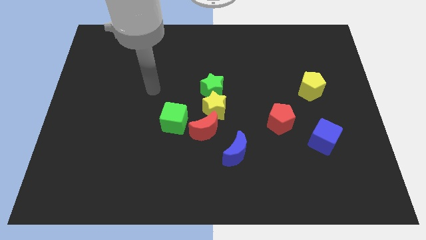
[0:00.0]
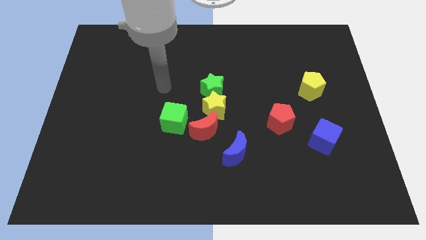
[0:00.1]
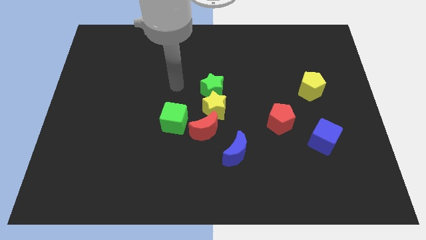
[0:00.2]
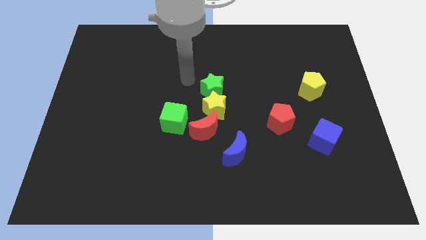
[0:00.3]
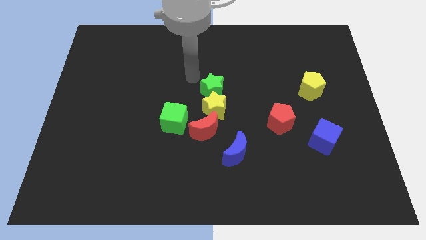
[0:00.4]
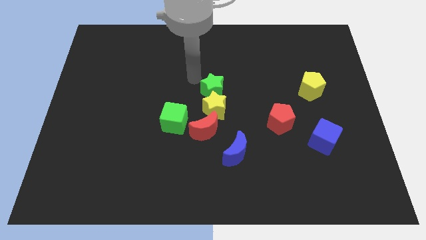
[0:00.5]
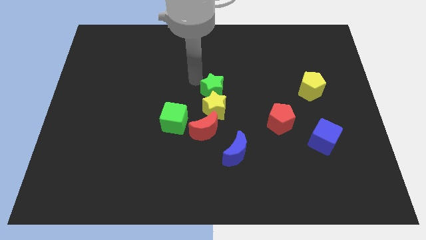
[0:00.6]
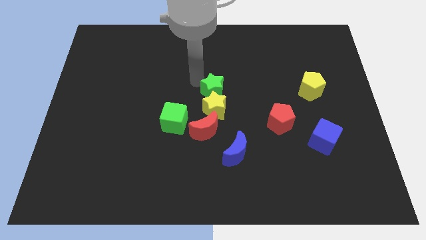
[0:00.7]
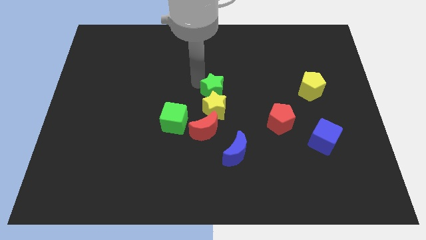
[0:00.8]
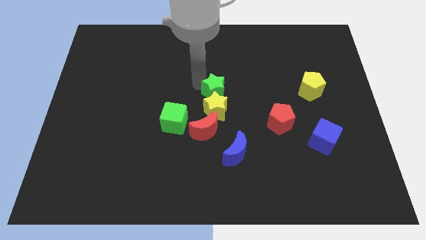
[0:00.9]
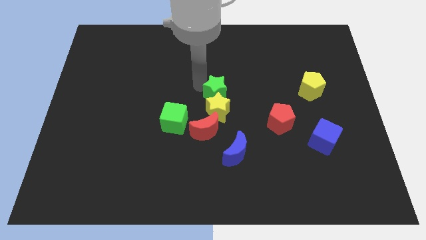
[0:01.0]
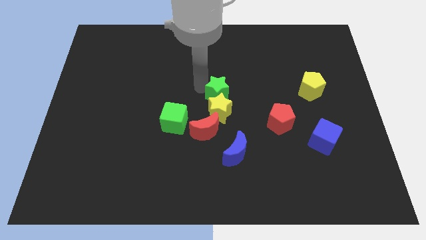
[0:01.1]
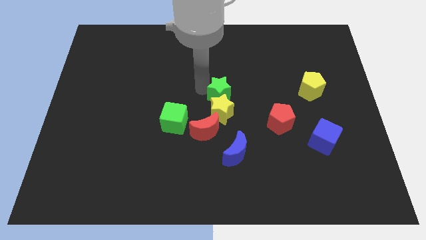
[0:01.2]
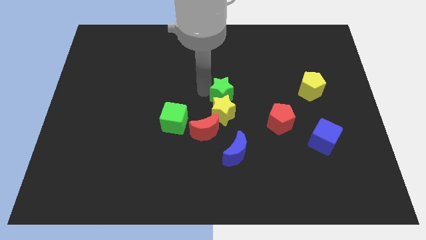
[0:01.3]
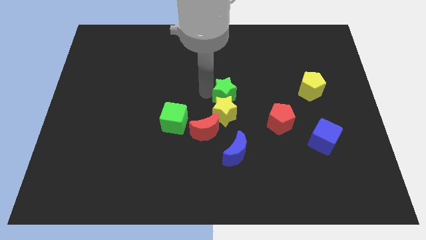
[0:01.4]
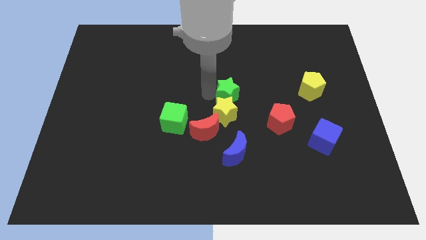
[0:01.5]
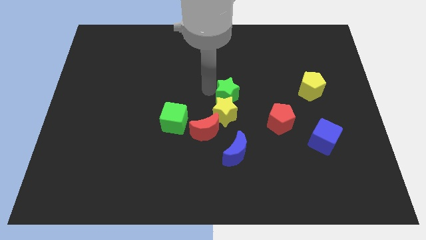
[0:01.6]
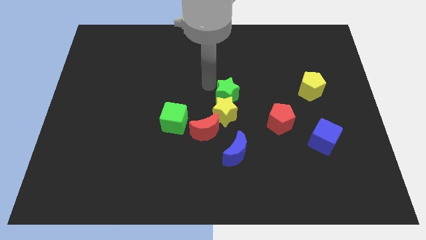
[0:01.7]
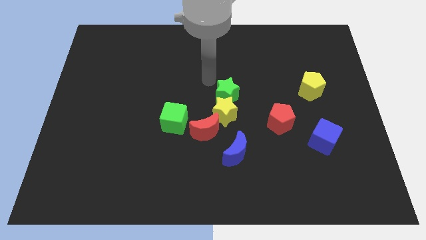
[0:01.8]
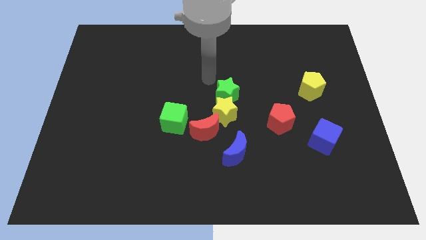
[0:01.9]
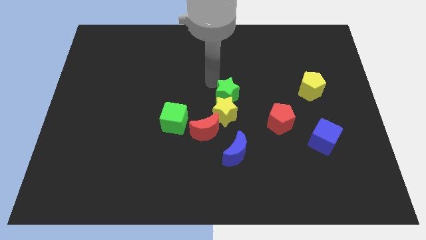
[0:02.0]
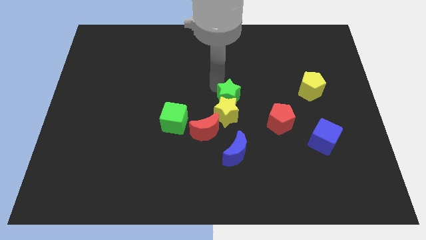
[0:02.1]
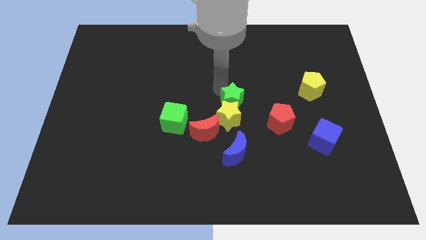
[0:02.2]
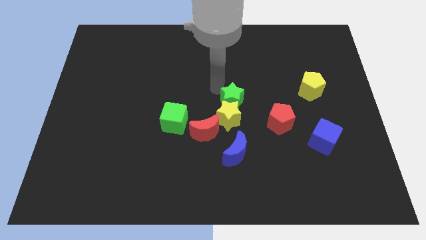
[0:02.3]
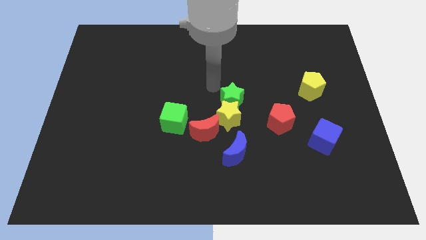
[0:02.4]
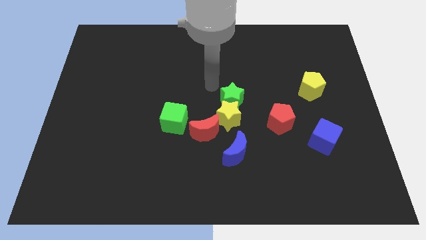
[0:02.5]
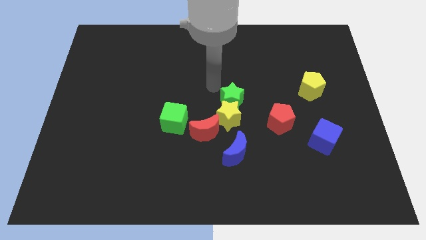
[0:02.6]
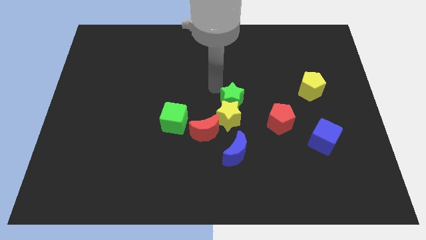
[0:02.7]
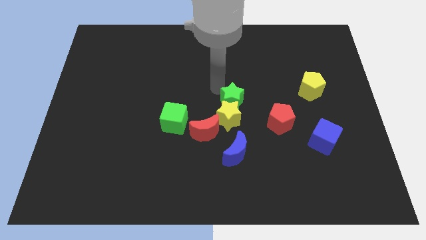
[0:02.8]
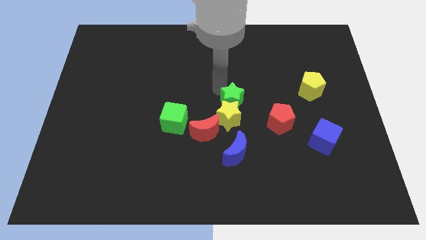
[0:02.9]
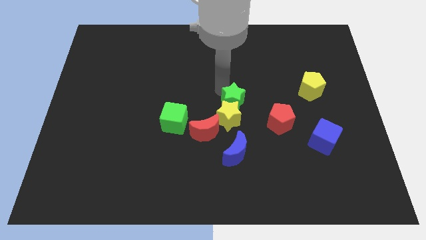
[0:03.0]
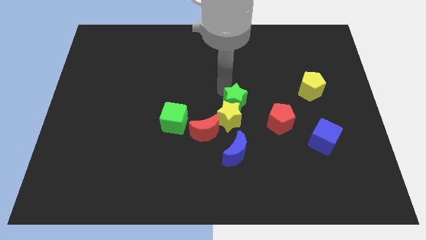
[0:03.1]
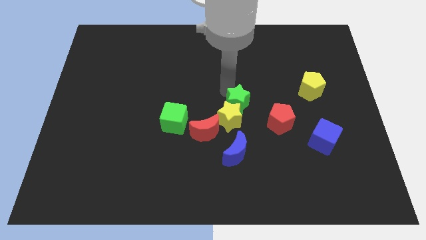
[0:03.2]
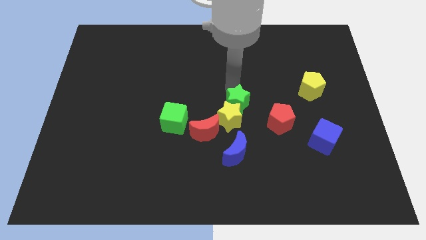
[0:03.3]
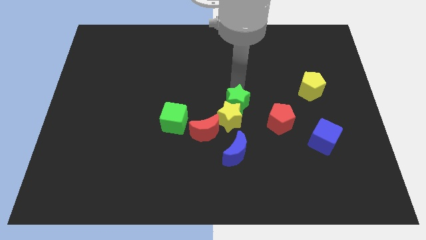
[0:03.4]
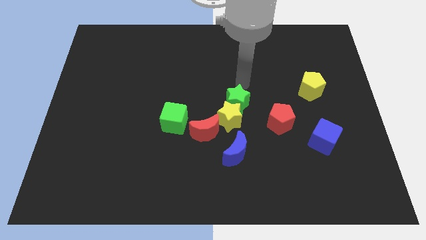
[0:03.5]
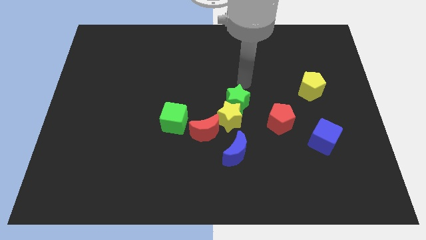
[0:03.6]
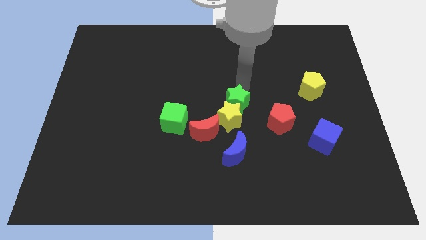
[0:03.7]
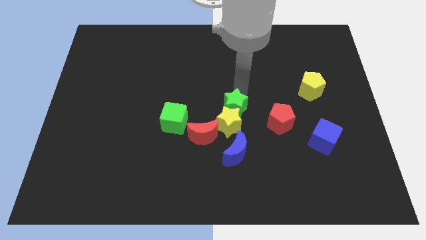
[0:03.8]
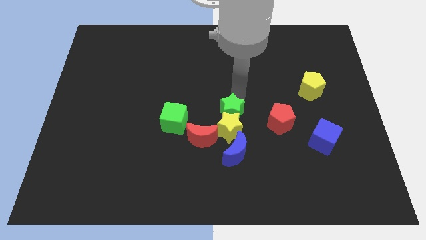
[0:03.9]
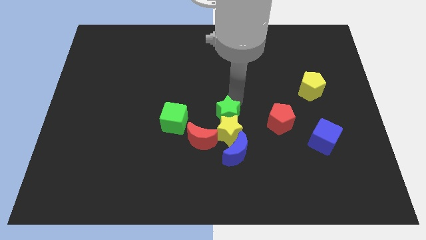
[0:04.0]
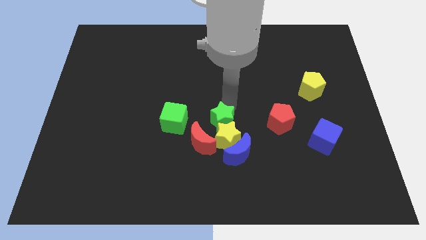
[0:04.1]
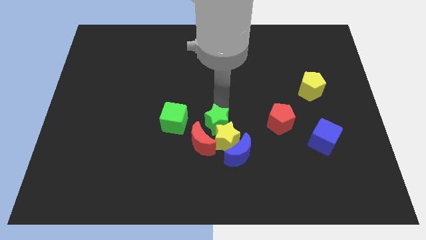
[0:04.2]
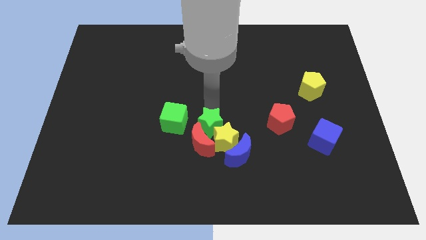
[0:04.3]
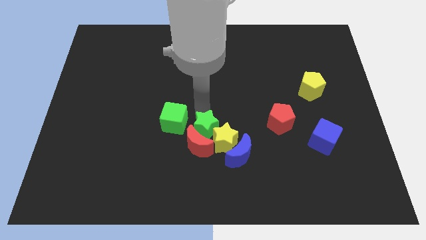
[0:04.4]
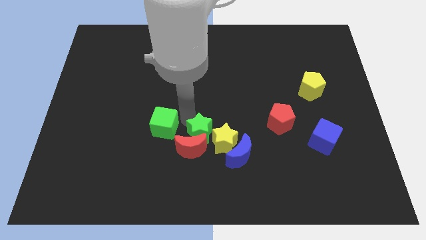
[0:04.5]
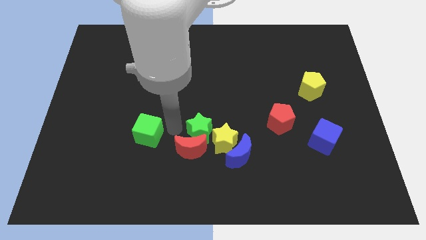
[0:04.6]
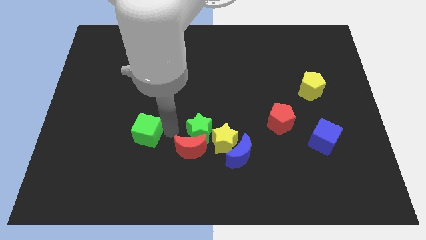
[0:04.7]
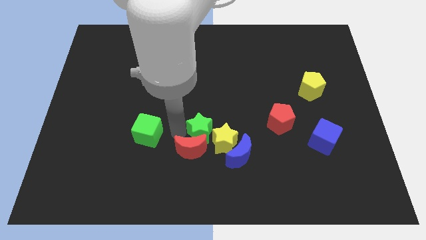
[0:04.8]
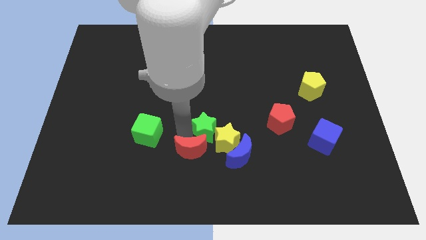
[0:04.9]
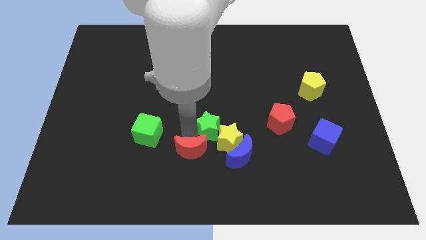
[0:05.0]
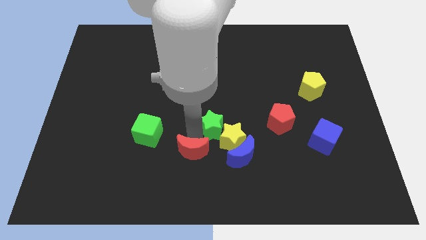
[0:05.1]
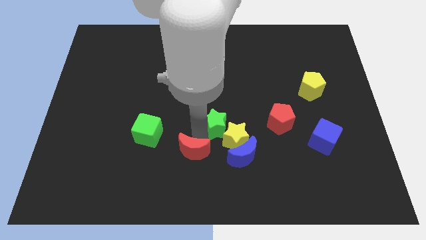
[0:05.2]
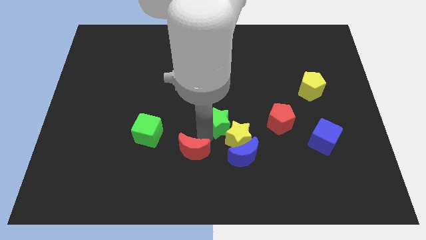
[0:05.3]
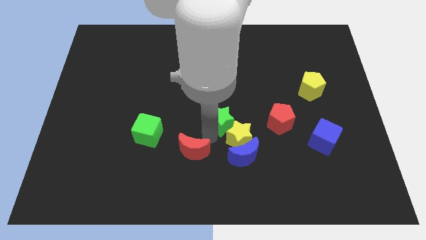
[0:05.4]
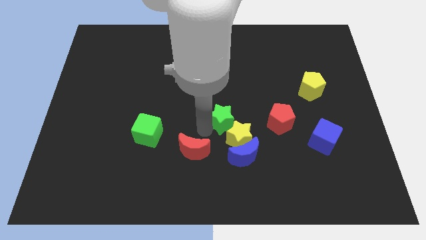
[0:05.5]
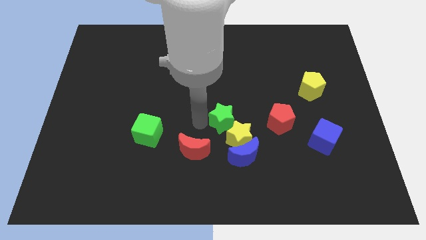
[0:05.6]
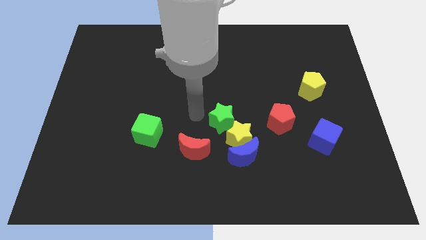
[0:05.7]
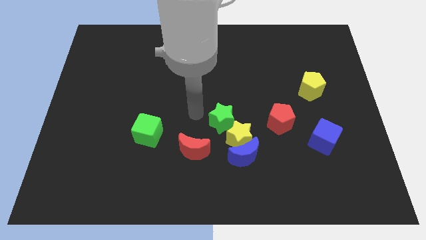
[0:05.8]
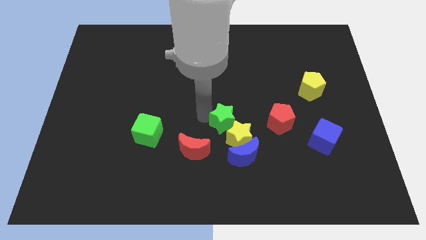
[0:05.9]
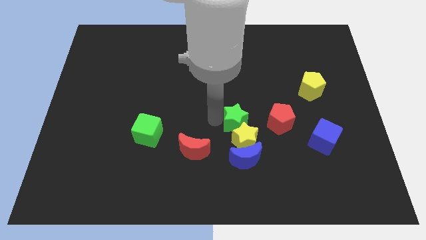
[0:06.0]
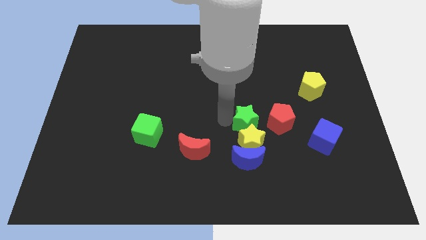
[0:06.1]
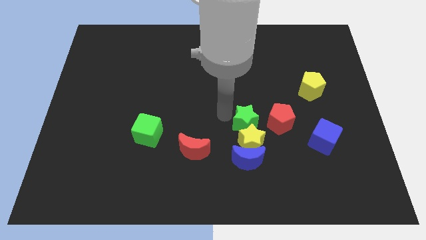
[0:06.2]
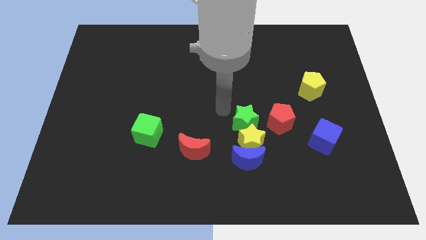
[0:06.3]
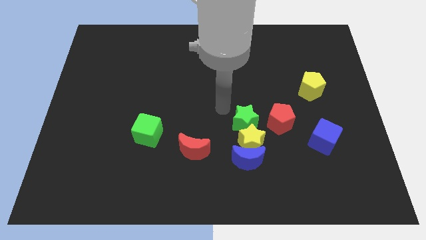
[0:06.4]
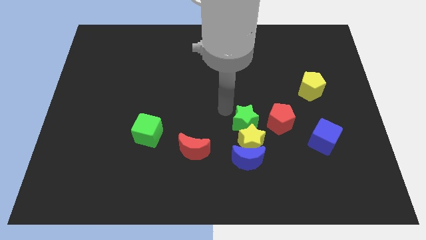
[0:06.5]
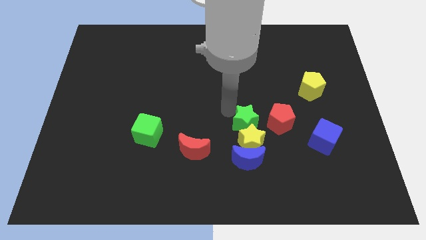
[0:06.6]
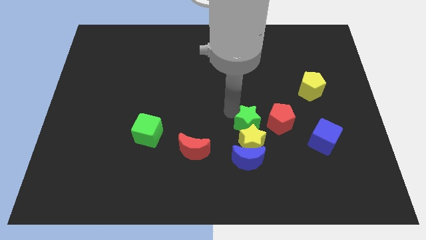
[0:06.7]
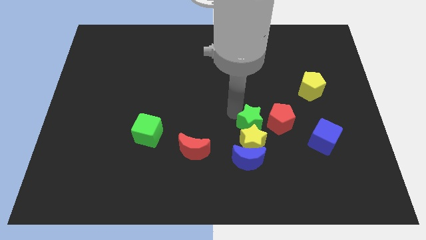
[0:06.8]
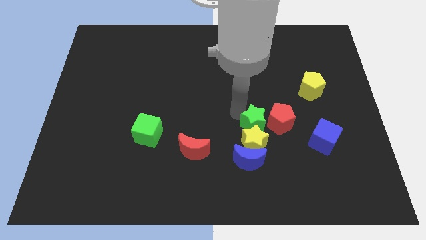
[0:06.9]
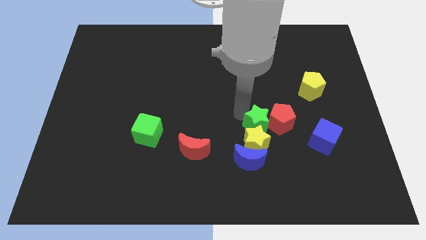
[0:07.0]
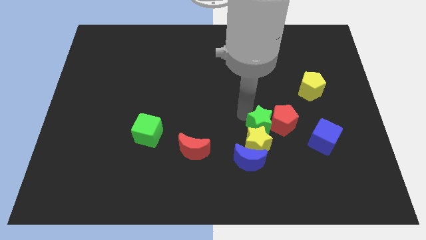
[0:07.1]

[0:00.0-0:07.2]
push the green star to the top right side of the blue moon
